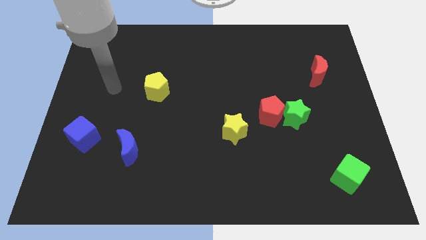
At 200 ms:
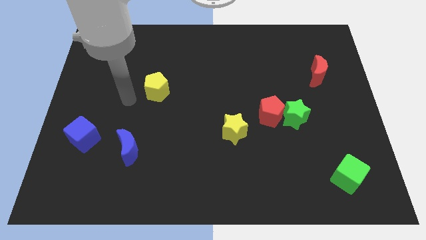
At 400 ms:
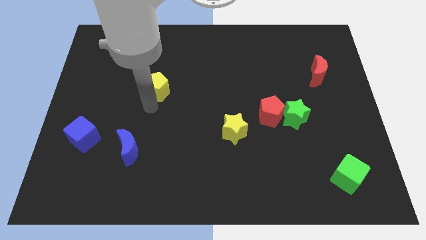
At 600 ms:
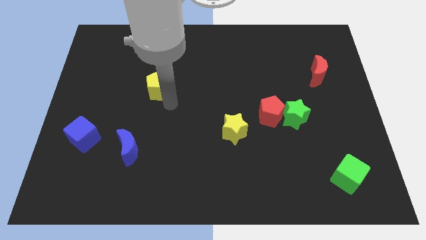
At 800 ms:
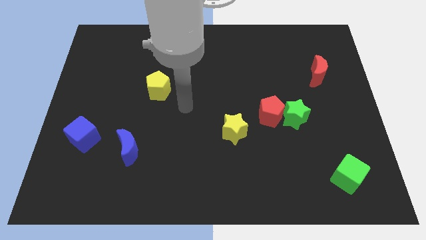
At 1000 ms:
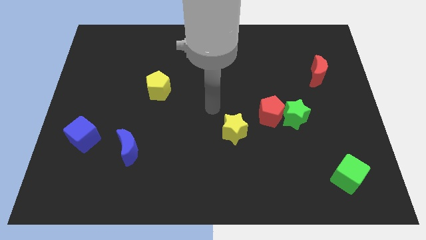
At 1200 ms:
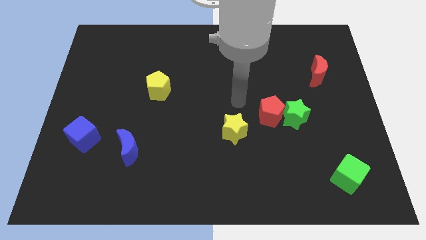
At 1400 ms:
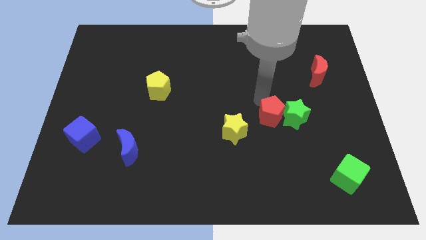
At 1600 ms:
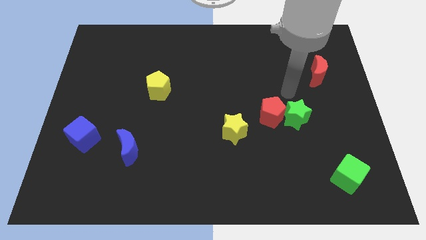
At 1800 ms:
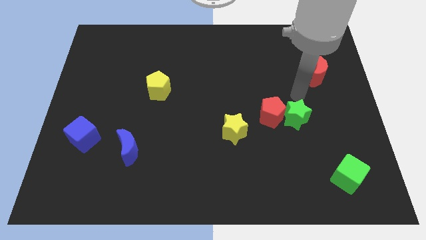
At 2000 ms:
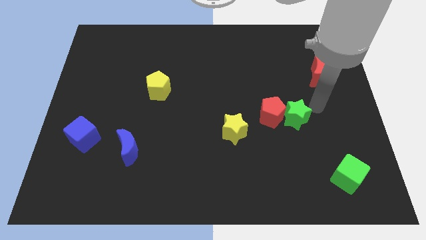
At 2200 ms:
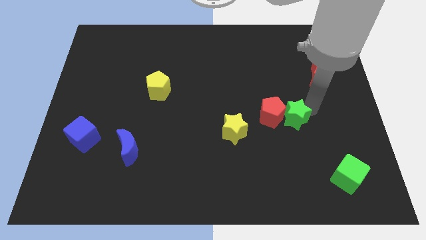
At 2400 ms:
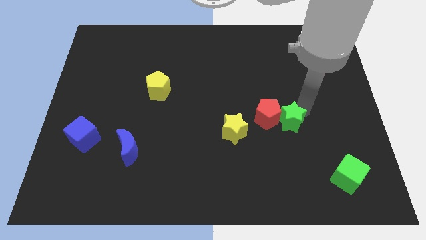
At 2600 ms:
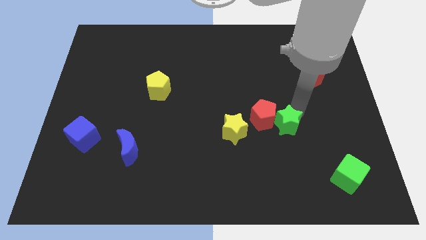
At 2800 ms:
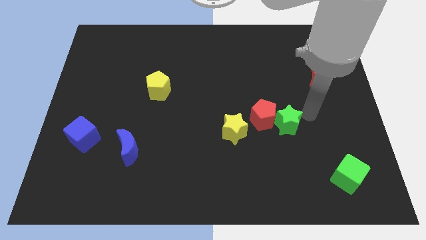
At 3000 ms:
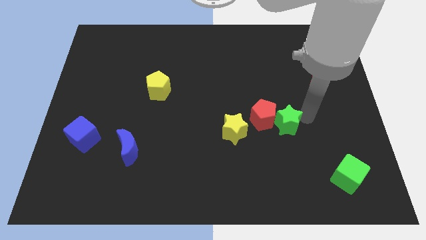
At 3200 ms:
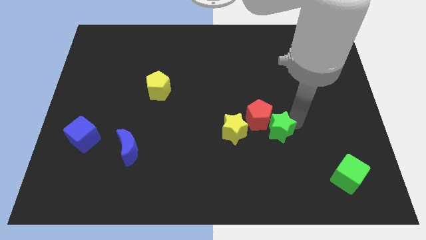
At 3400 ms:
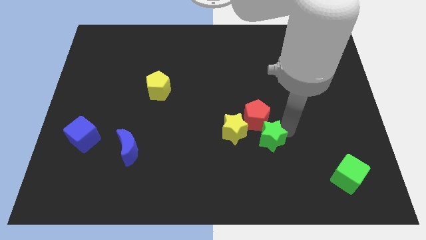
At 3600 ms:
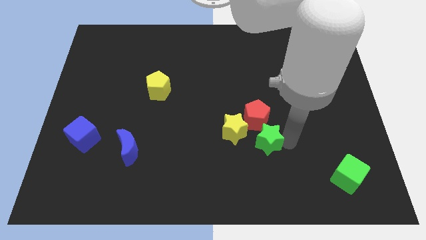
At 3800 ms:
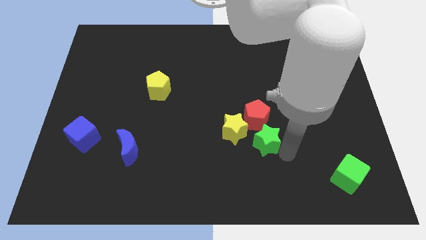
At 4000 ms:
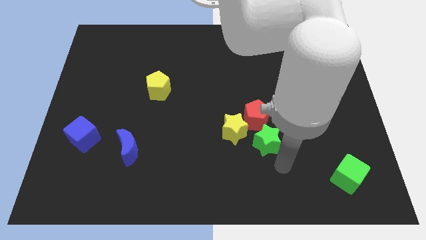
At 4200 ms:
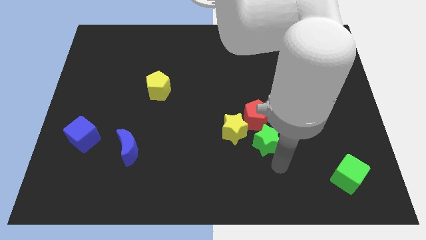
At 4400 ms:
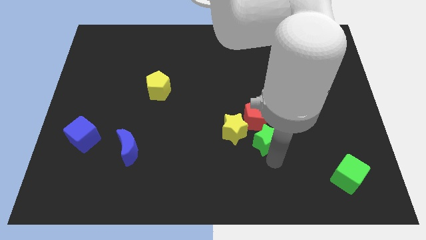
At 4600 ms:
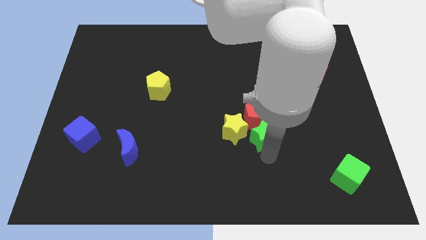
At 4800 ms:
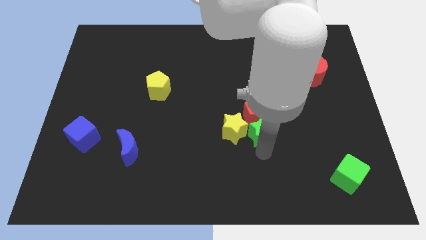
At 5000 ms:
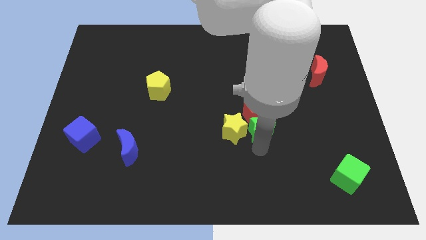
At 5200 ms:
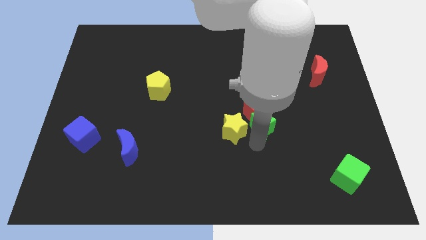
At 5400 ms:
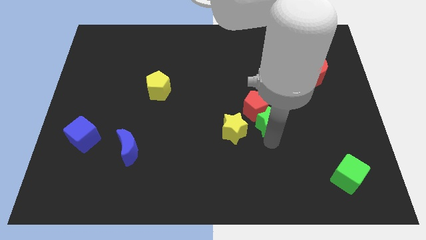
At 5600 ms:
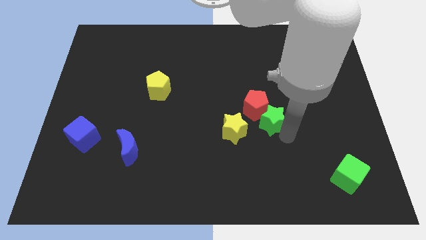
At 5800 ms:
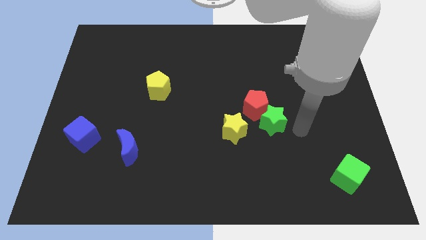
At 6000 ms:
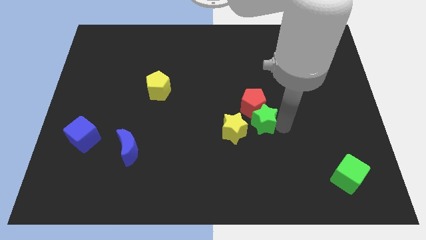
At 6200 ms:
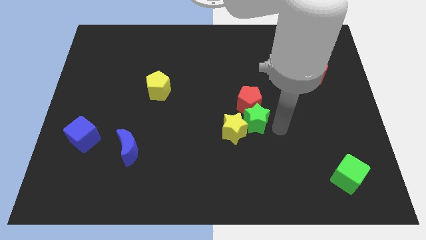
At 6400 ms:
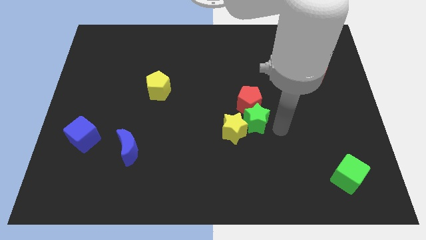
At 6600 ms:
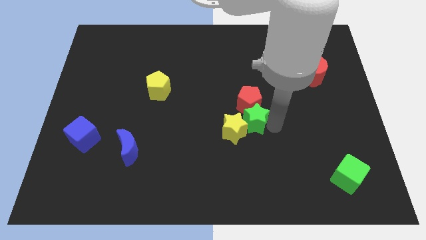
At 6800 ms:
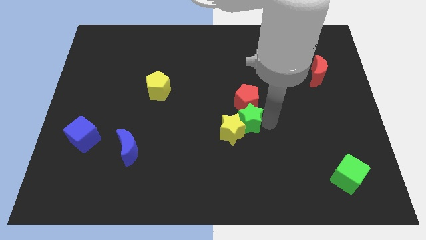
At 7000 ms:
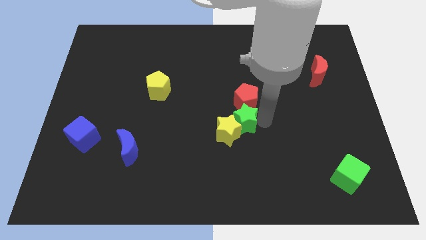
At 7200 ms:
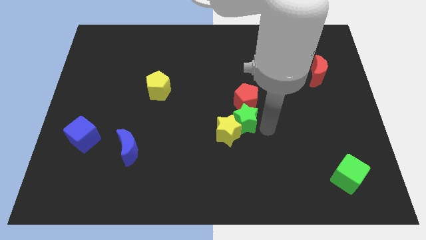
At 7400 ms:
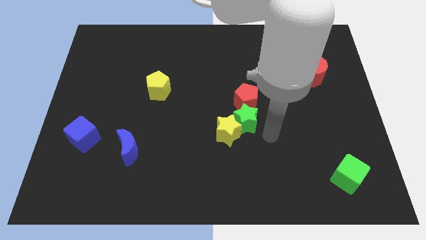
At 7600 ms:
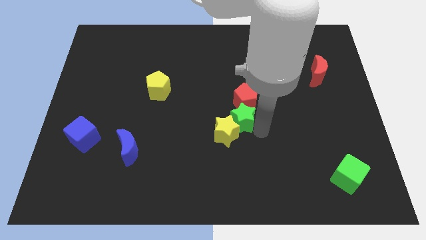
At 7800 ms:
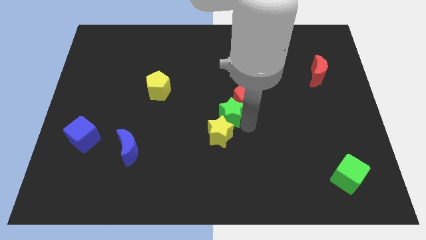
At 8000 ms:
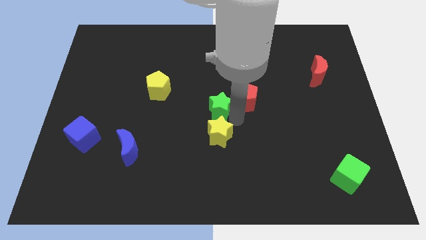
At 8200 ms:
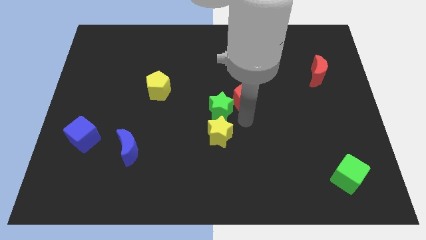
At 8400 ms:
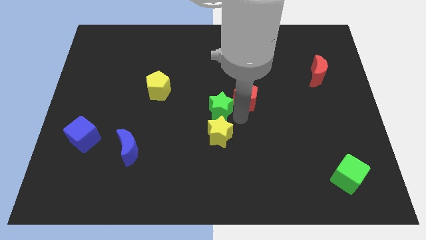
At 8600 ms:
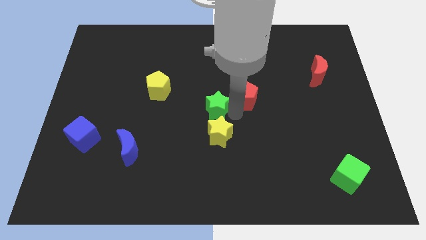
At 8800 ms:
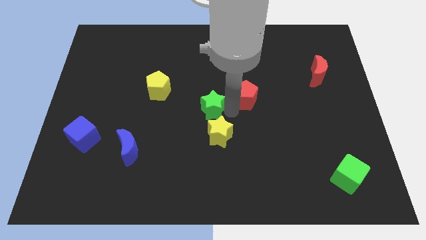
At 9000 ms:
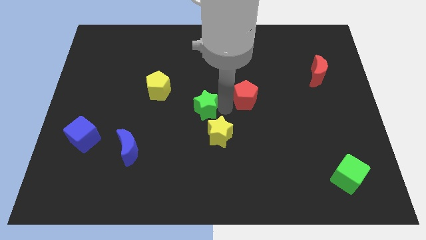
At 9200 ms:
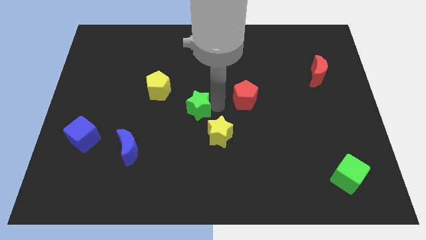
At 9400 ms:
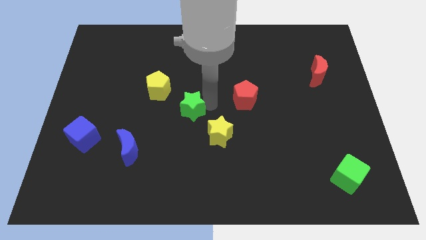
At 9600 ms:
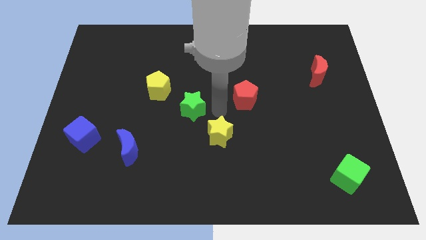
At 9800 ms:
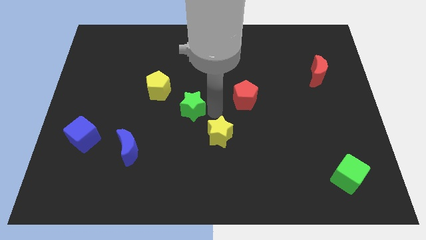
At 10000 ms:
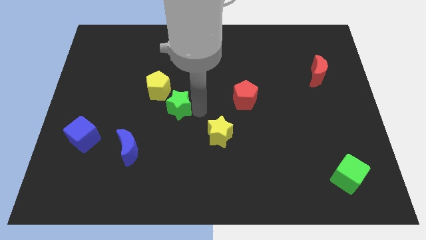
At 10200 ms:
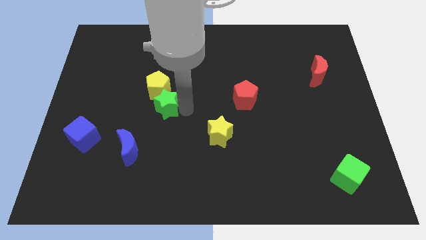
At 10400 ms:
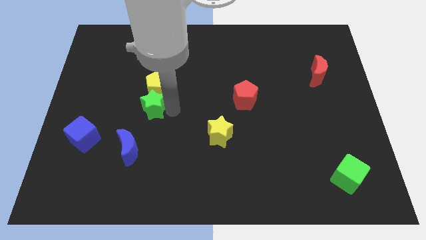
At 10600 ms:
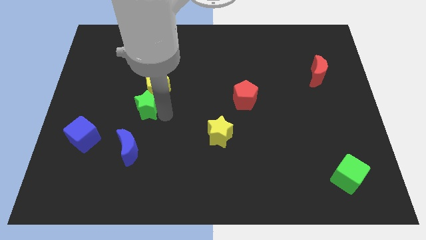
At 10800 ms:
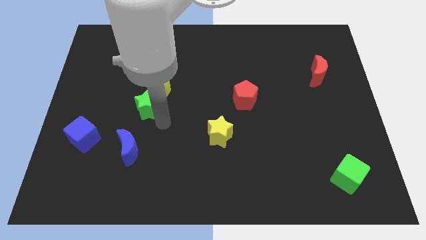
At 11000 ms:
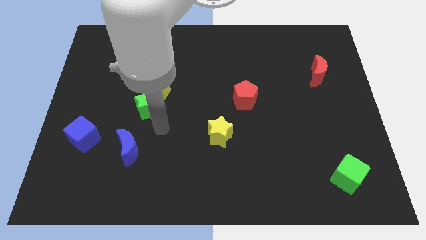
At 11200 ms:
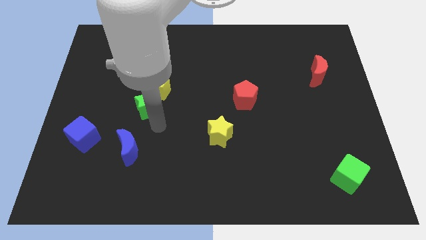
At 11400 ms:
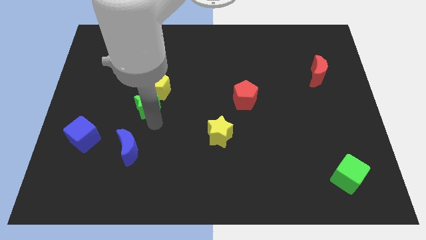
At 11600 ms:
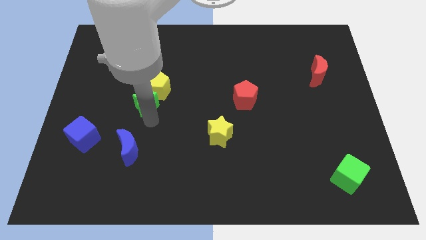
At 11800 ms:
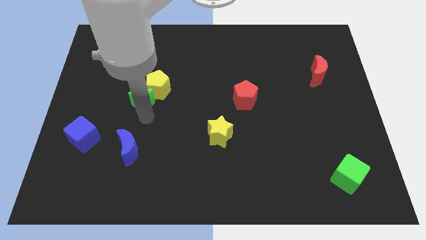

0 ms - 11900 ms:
slide the green star to the left side of the yellow pentagon

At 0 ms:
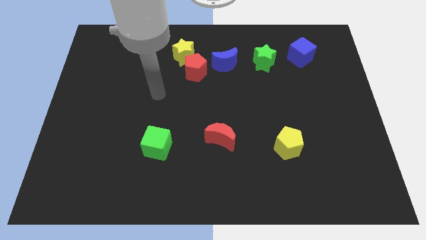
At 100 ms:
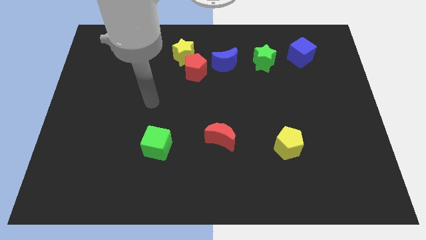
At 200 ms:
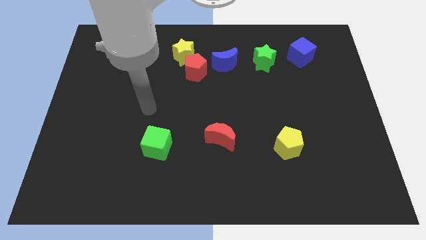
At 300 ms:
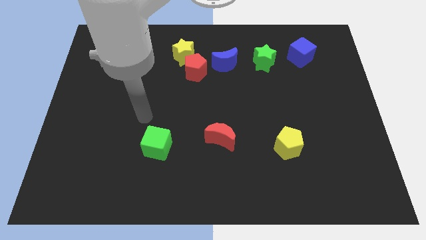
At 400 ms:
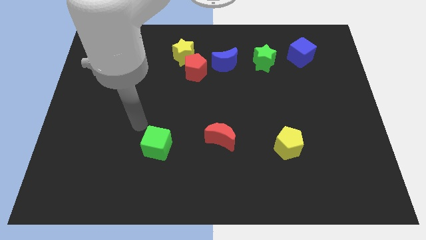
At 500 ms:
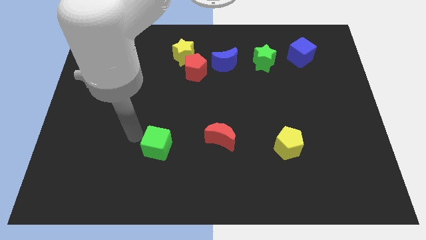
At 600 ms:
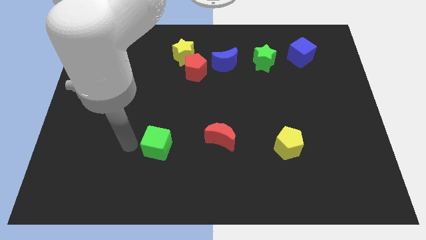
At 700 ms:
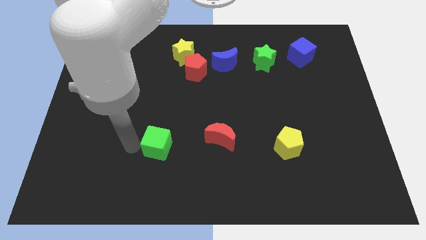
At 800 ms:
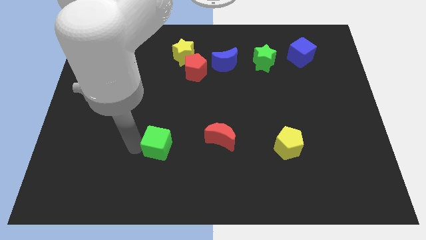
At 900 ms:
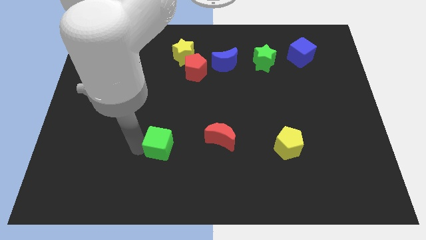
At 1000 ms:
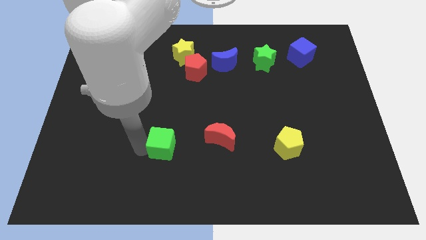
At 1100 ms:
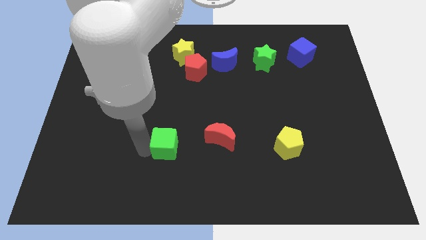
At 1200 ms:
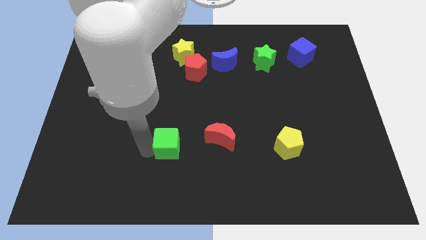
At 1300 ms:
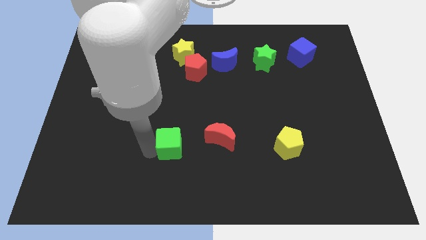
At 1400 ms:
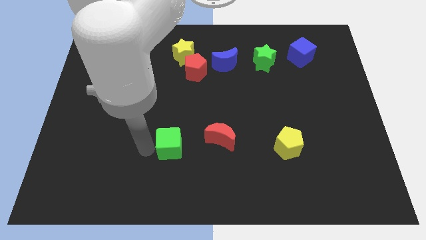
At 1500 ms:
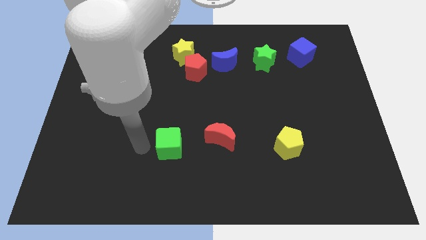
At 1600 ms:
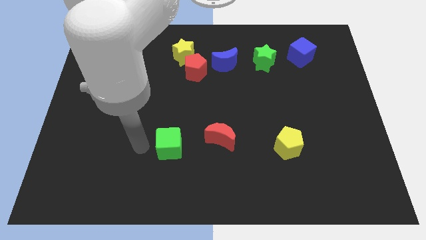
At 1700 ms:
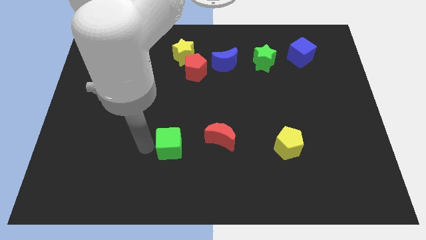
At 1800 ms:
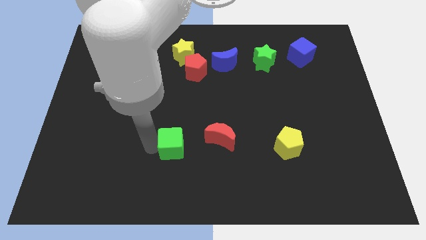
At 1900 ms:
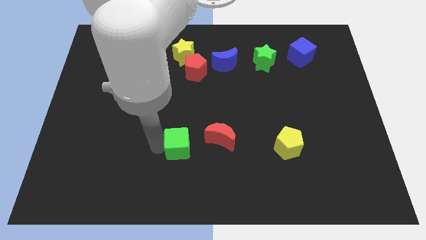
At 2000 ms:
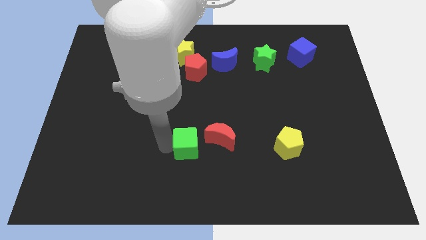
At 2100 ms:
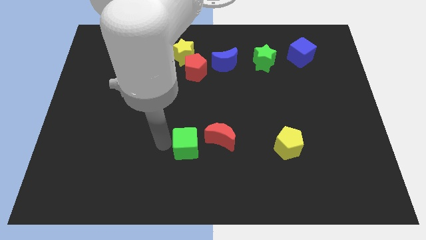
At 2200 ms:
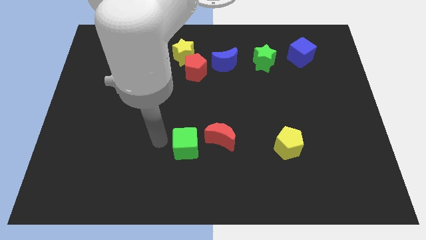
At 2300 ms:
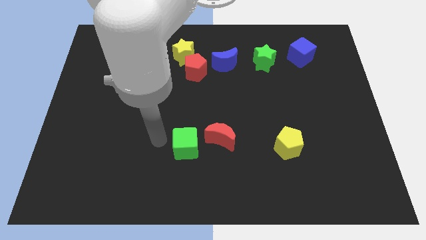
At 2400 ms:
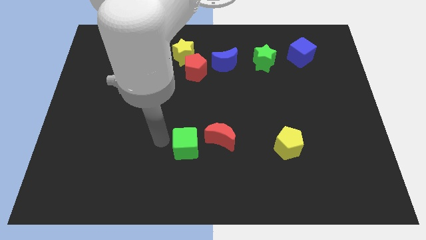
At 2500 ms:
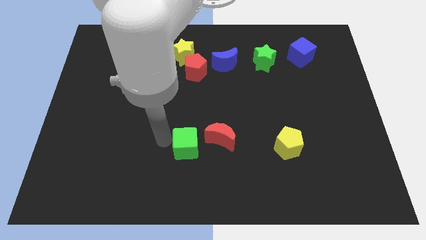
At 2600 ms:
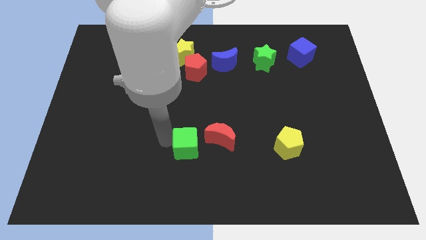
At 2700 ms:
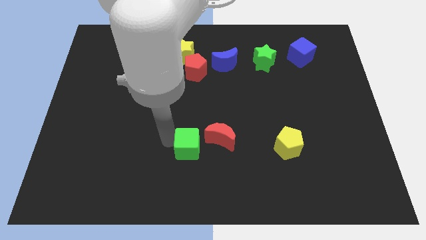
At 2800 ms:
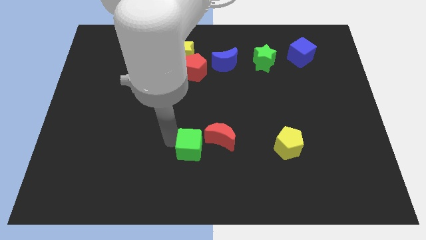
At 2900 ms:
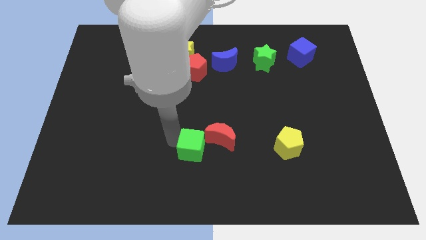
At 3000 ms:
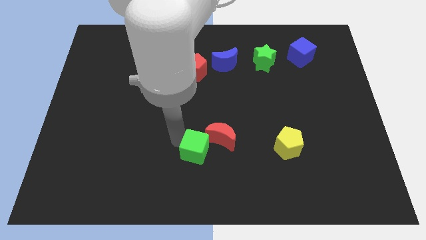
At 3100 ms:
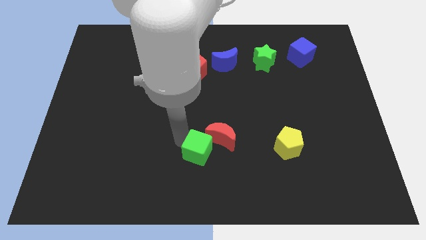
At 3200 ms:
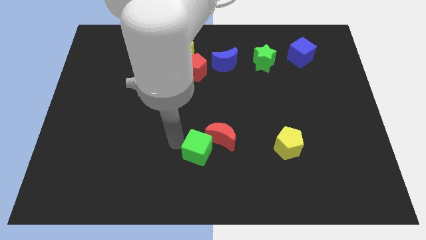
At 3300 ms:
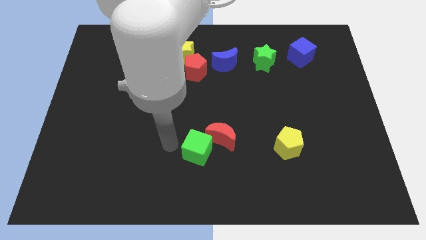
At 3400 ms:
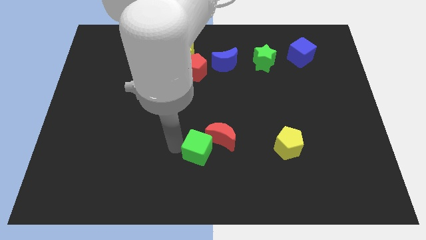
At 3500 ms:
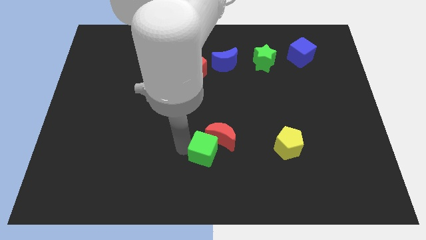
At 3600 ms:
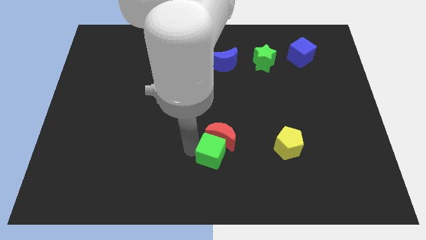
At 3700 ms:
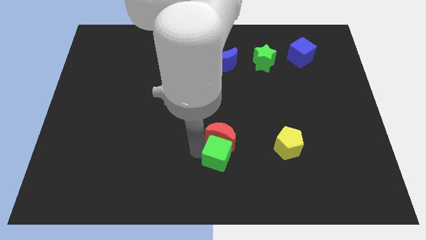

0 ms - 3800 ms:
put the green cube diagonally down and to the right of the red moon
